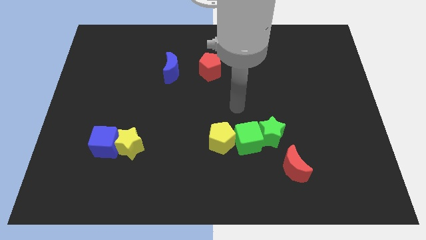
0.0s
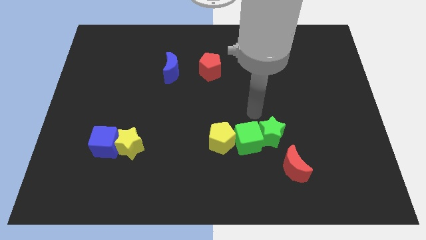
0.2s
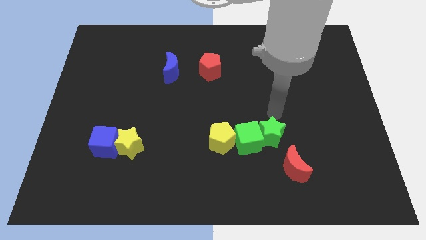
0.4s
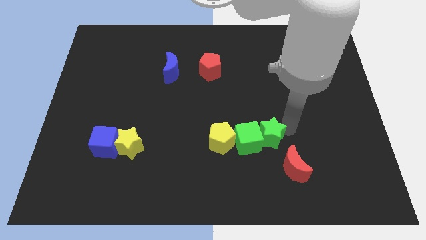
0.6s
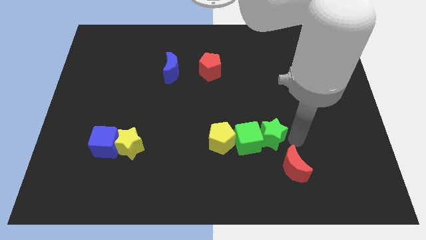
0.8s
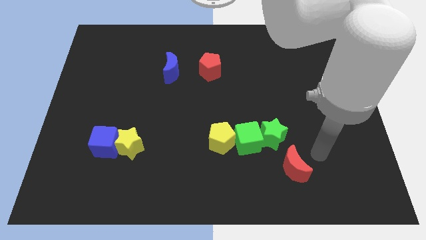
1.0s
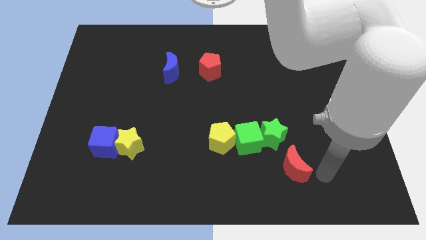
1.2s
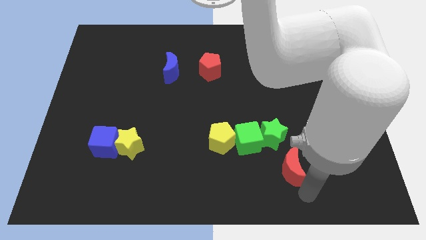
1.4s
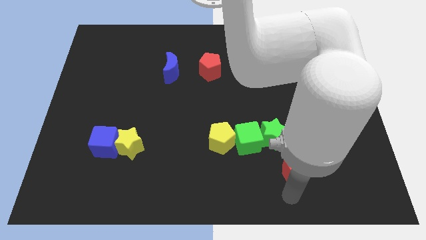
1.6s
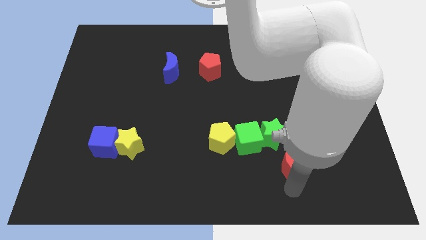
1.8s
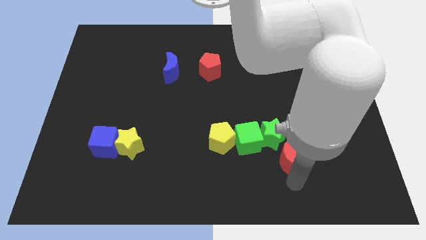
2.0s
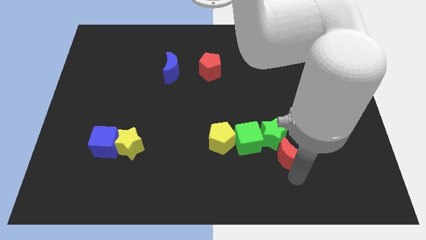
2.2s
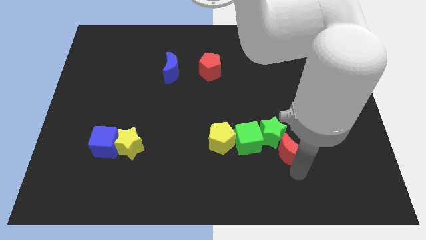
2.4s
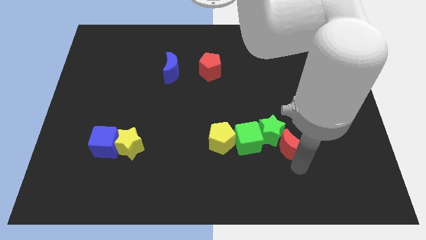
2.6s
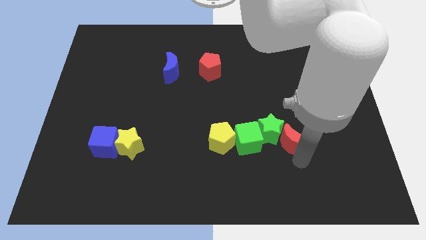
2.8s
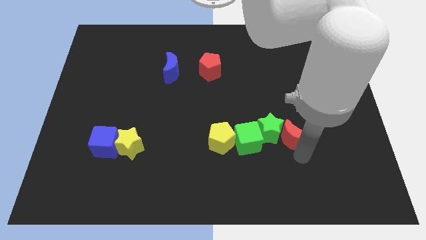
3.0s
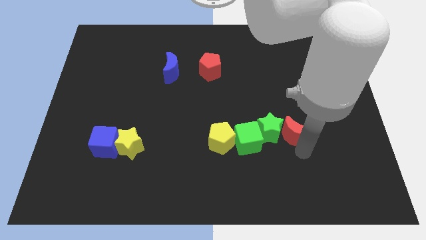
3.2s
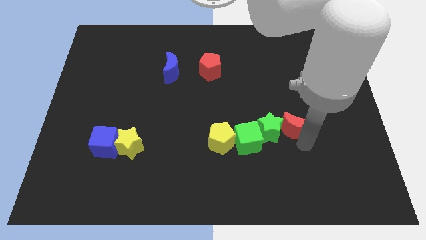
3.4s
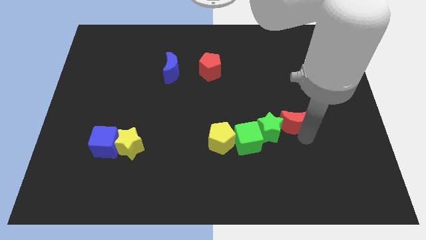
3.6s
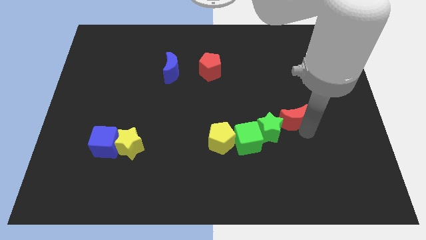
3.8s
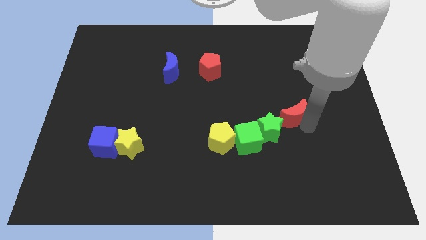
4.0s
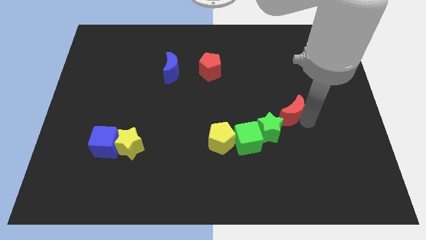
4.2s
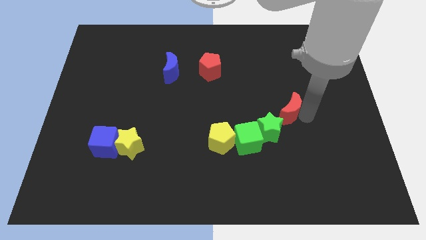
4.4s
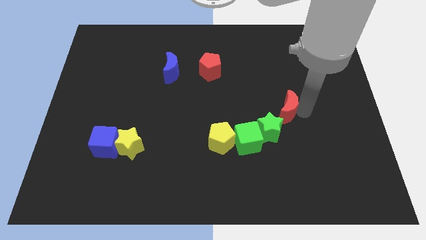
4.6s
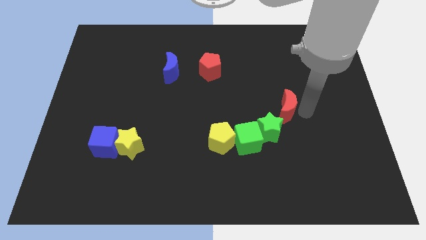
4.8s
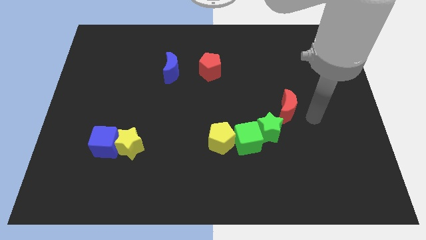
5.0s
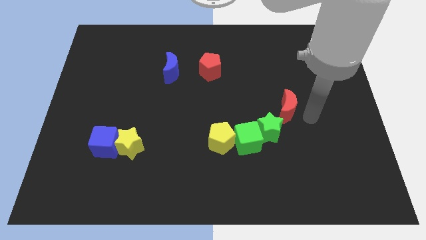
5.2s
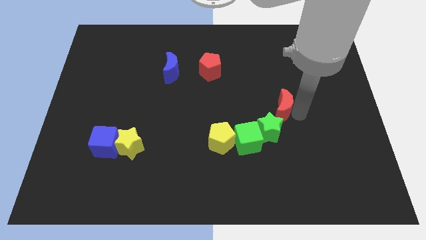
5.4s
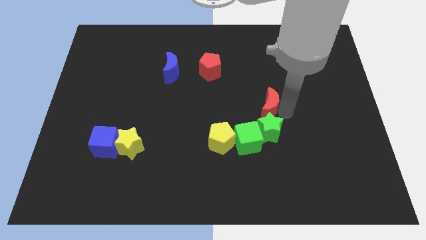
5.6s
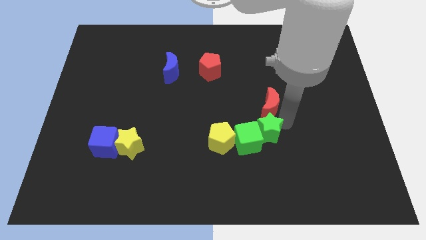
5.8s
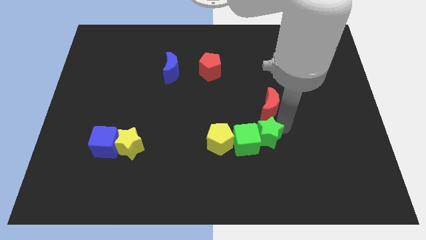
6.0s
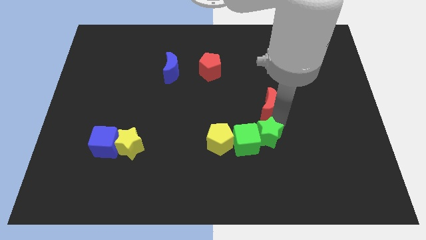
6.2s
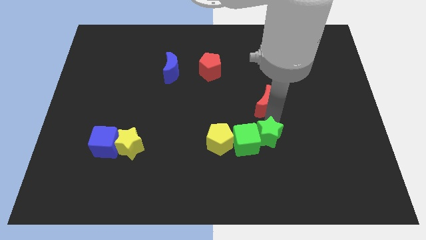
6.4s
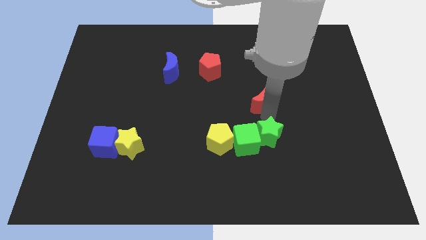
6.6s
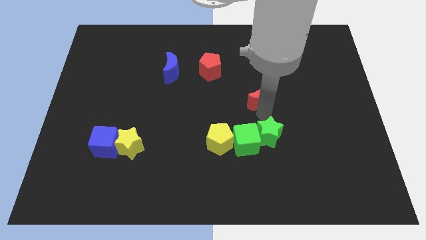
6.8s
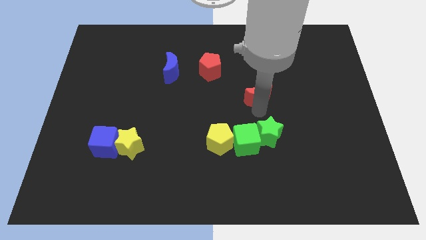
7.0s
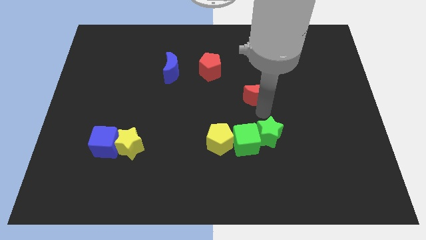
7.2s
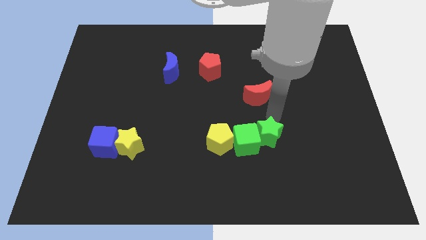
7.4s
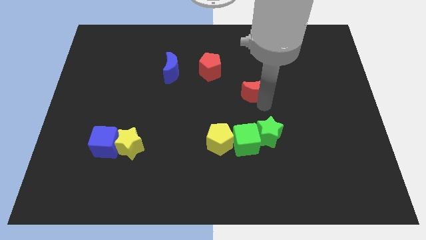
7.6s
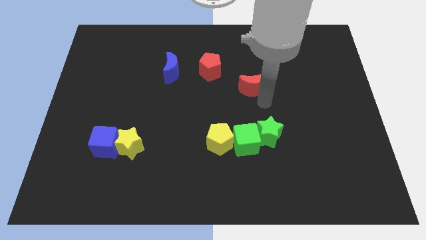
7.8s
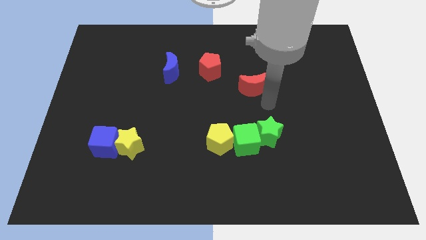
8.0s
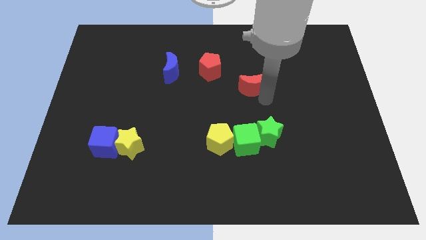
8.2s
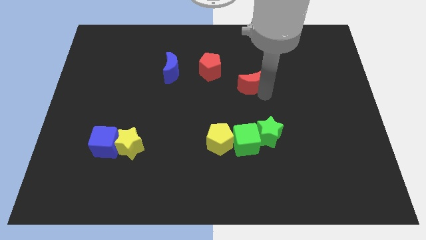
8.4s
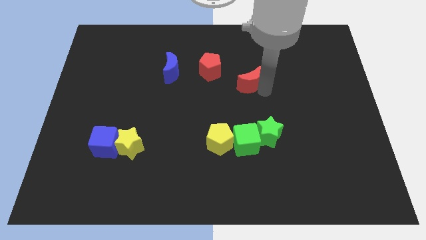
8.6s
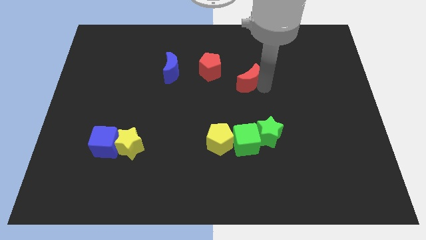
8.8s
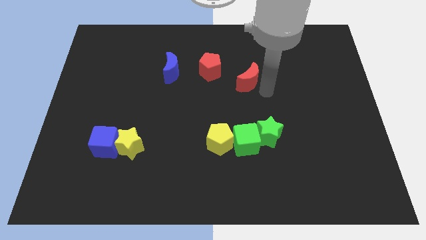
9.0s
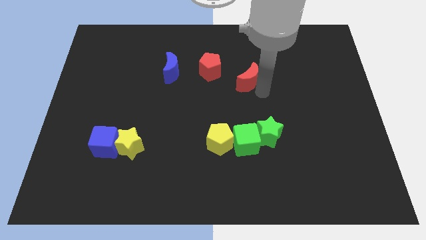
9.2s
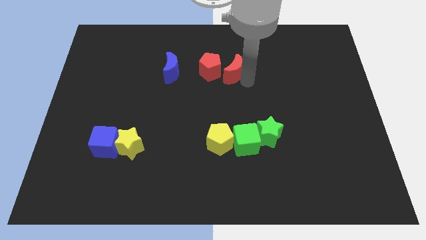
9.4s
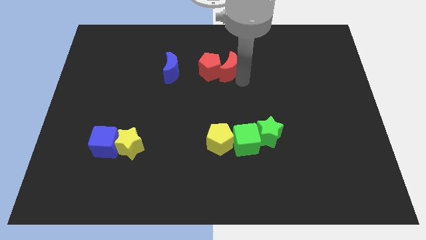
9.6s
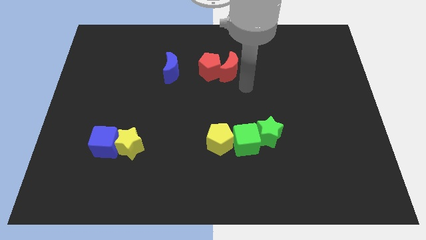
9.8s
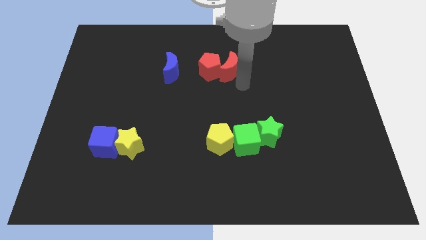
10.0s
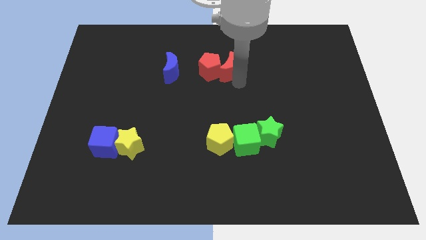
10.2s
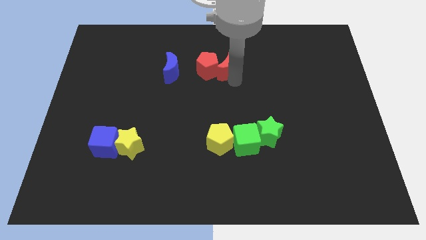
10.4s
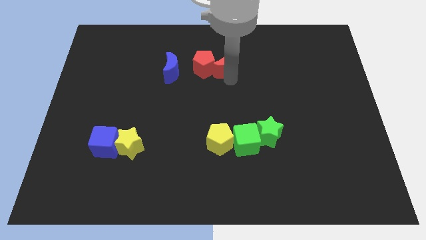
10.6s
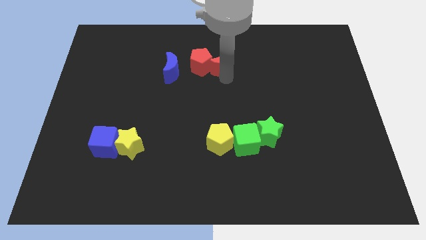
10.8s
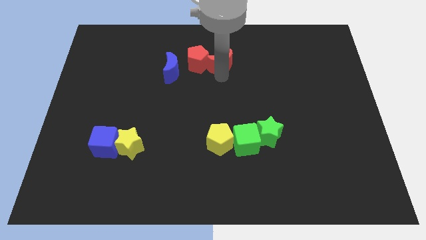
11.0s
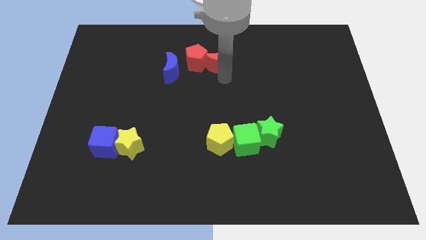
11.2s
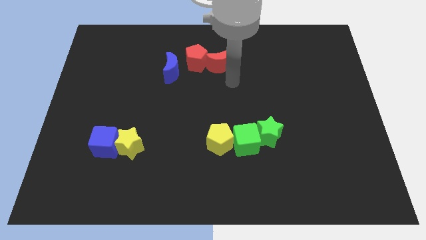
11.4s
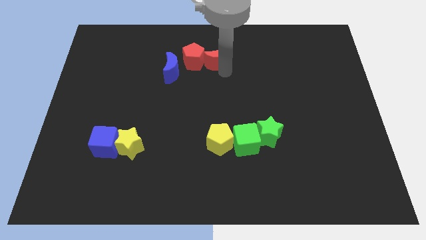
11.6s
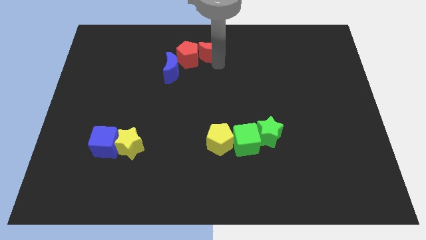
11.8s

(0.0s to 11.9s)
push the red moon to the towards your base

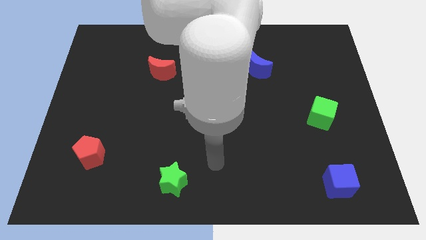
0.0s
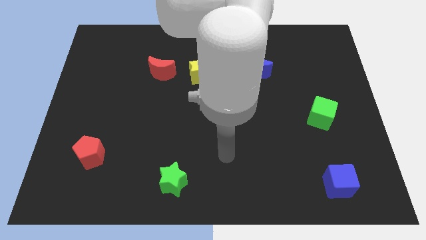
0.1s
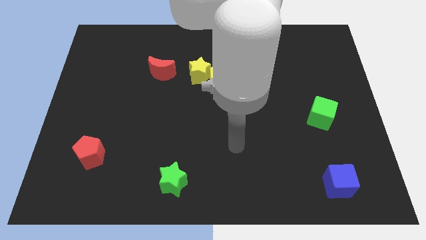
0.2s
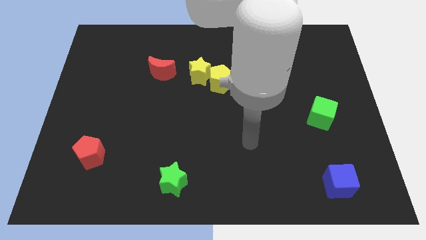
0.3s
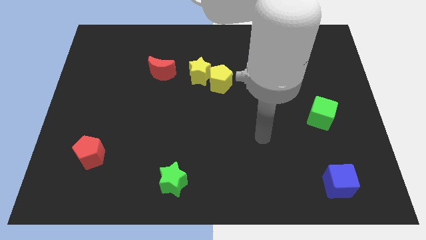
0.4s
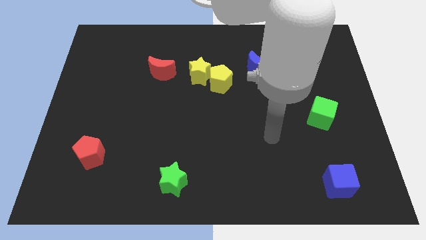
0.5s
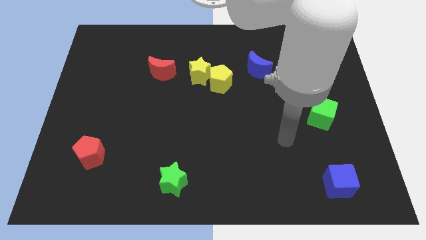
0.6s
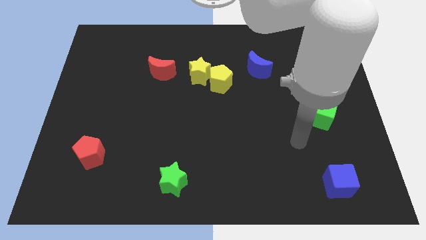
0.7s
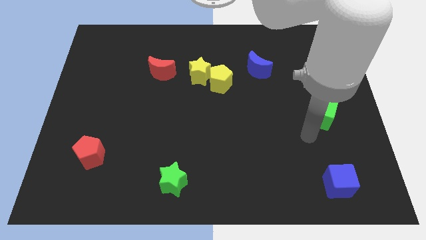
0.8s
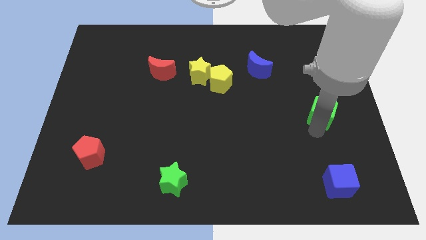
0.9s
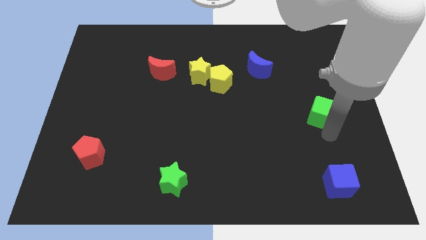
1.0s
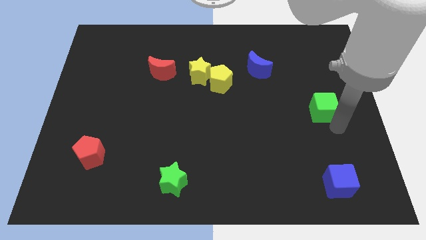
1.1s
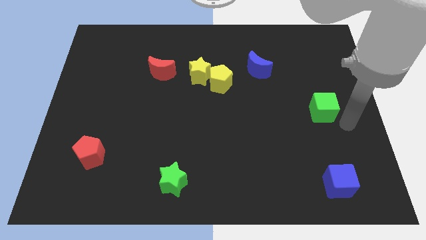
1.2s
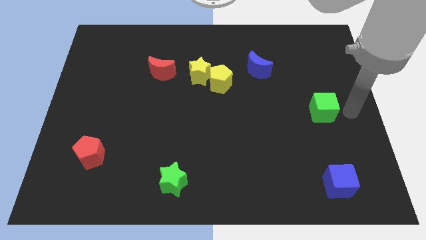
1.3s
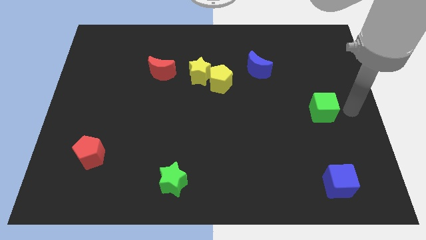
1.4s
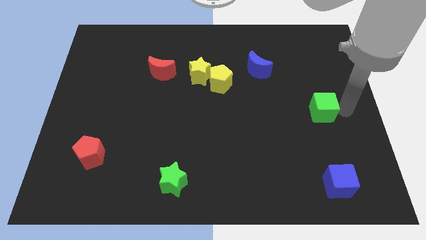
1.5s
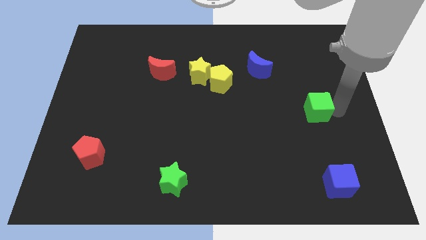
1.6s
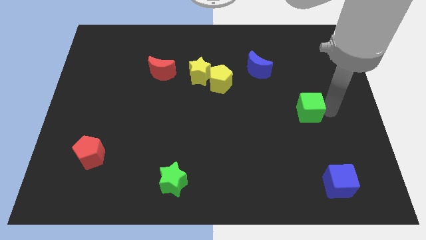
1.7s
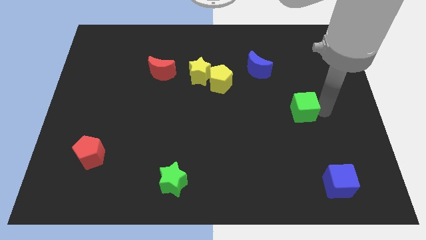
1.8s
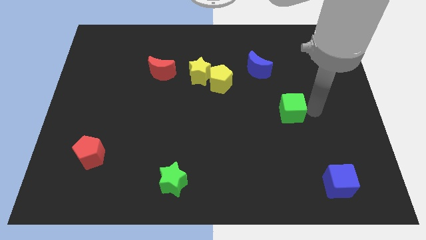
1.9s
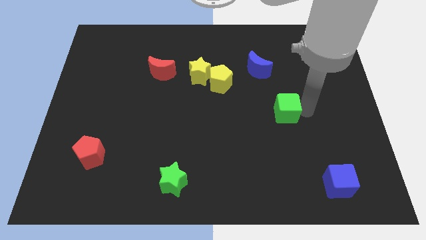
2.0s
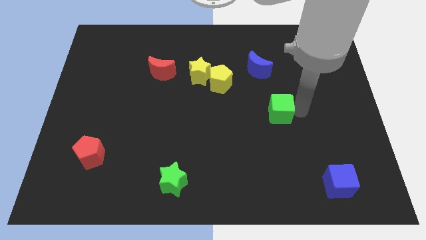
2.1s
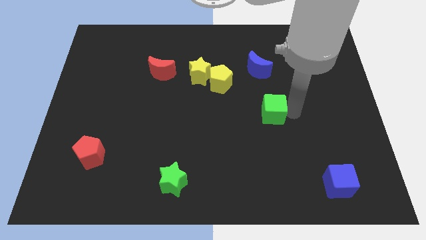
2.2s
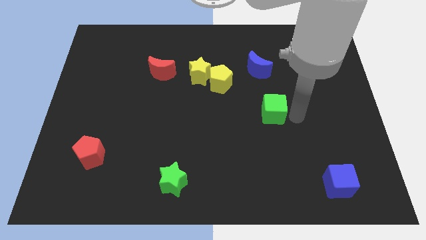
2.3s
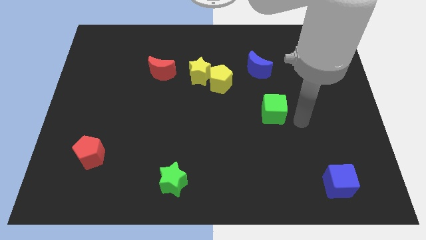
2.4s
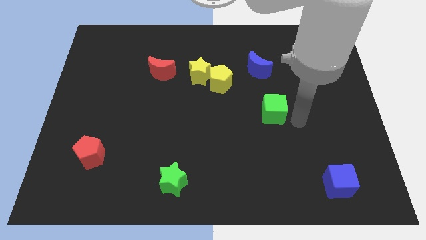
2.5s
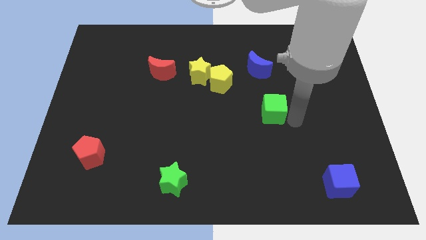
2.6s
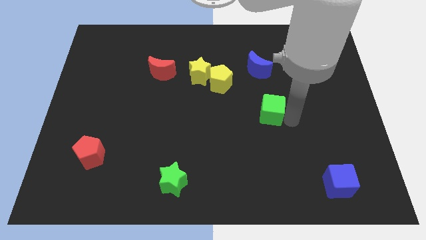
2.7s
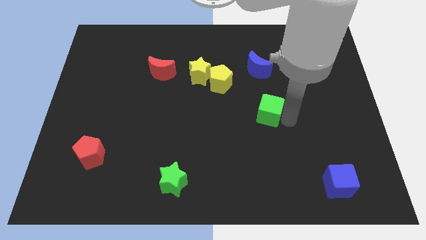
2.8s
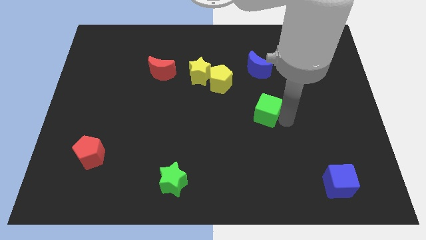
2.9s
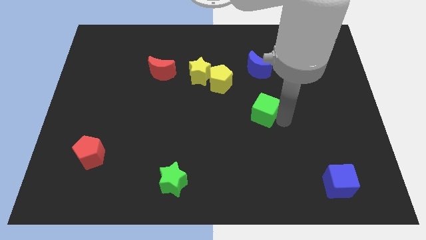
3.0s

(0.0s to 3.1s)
slide the green cube to the middle of the board
